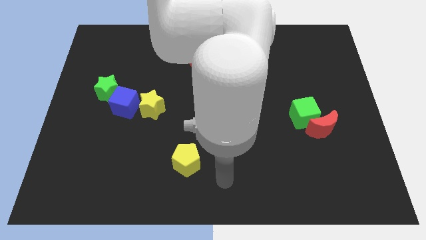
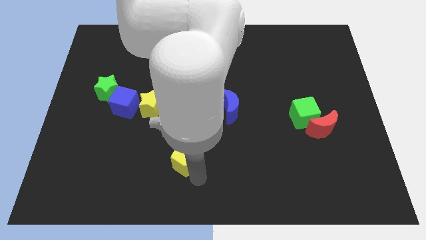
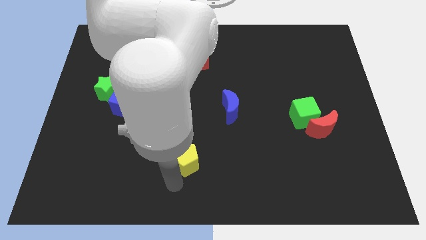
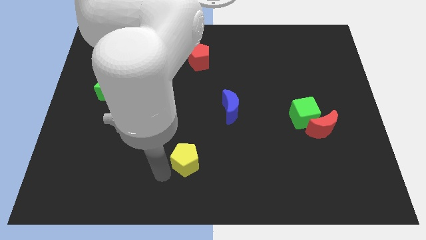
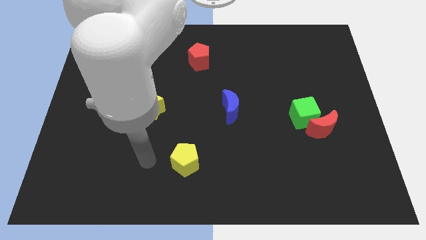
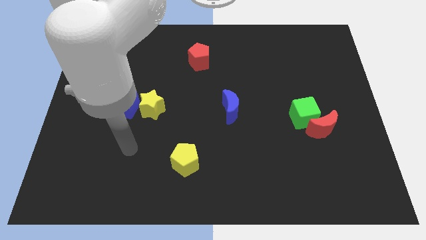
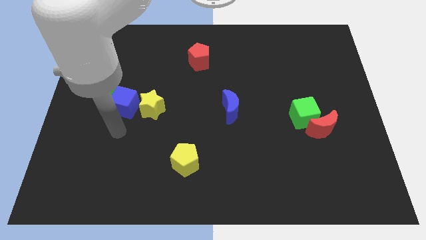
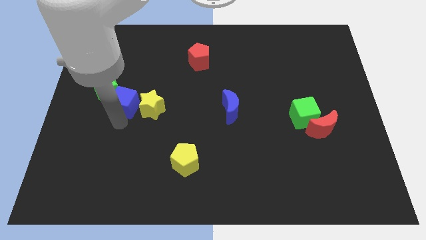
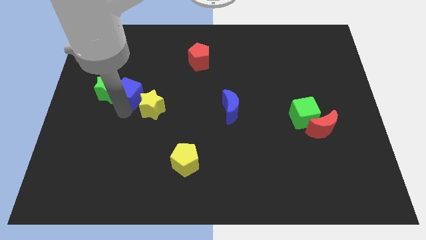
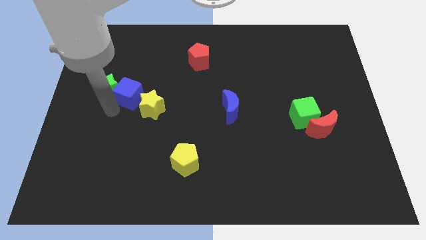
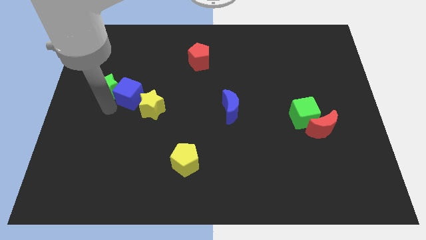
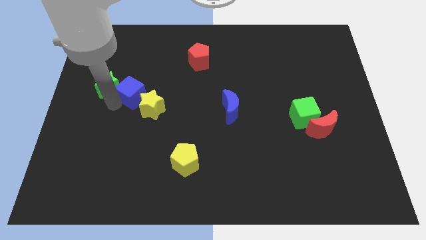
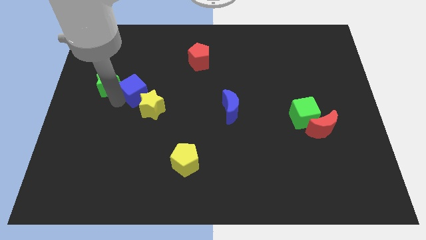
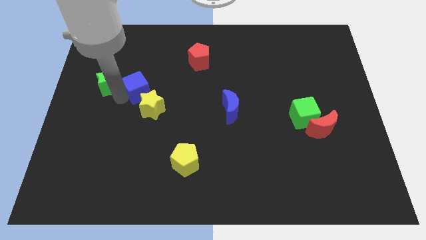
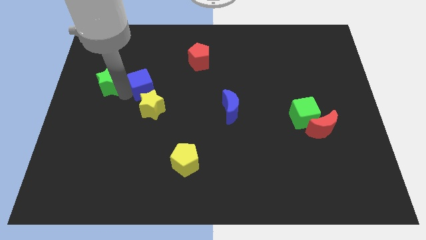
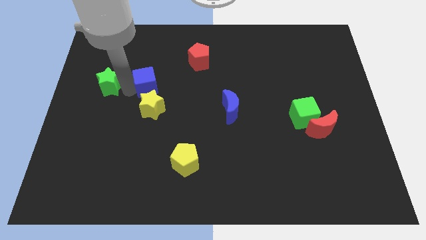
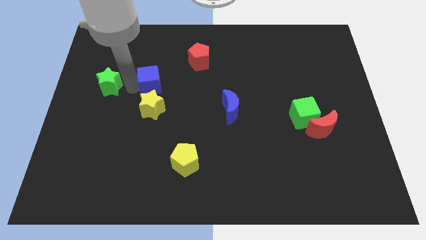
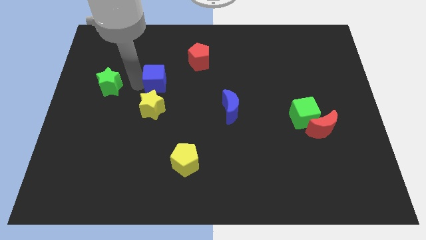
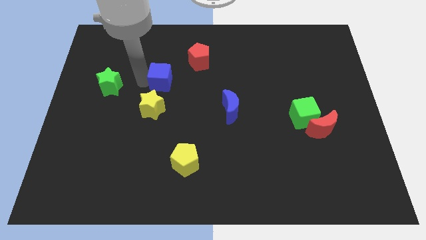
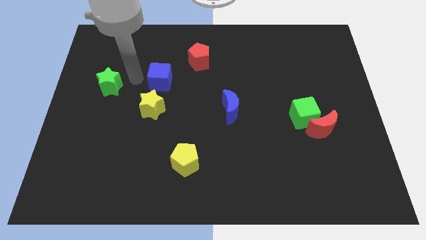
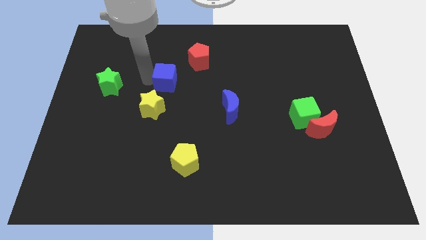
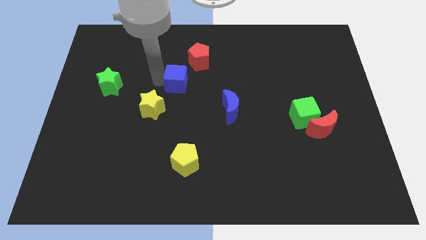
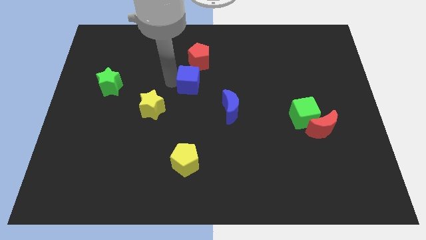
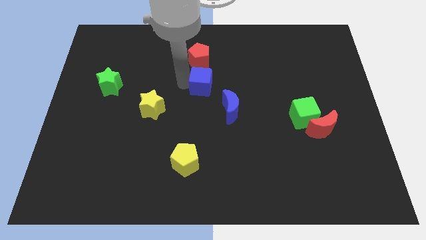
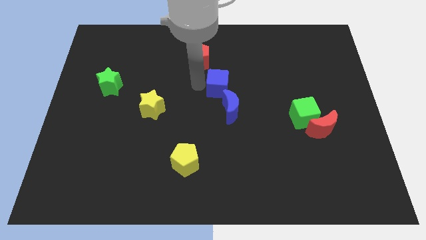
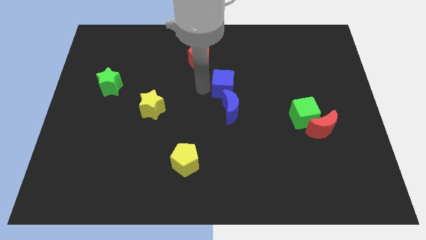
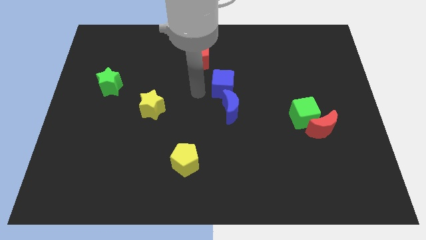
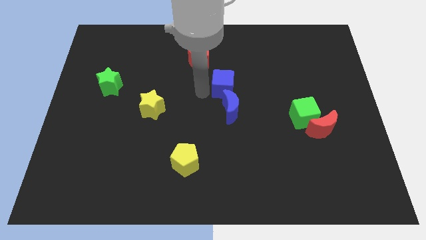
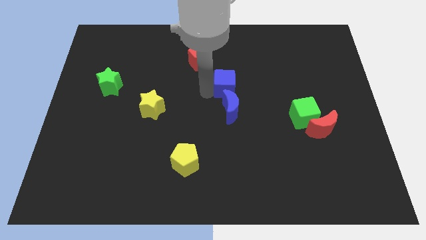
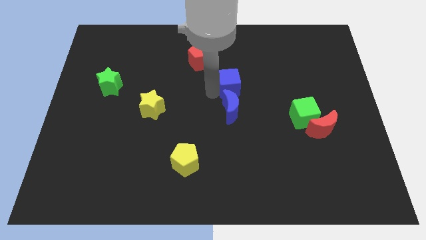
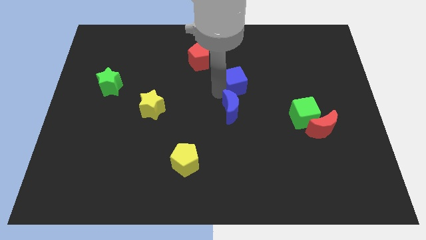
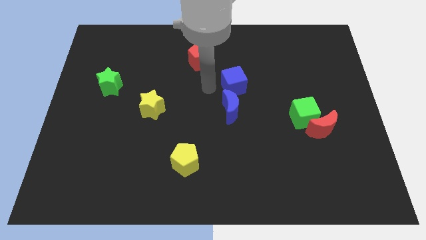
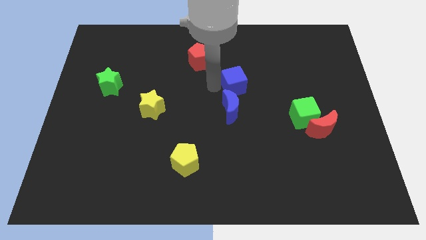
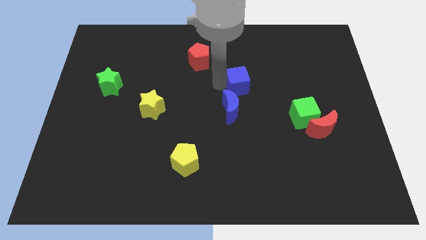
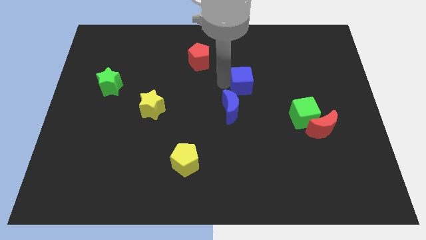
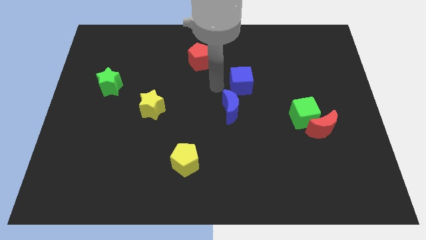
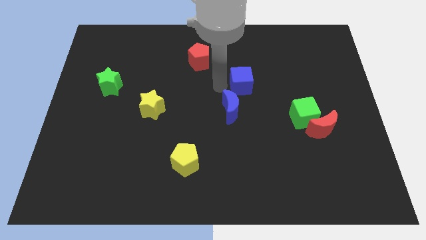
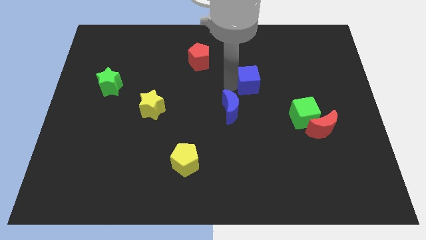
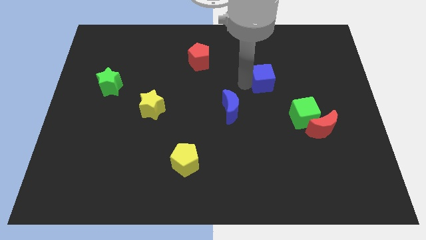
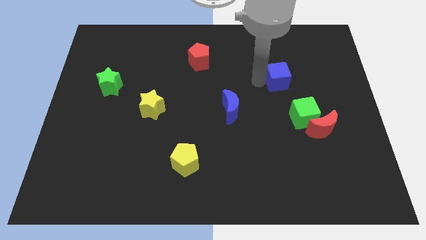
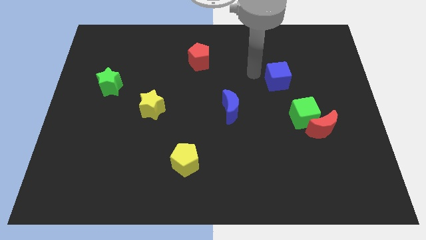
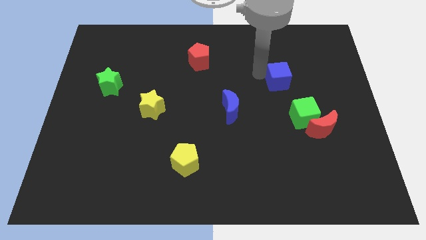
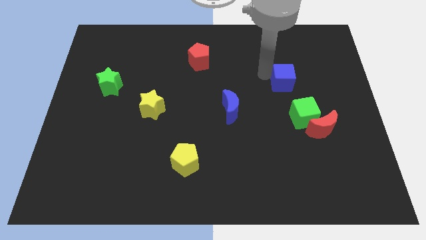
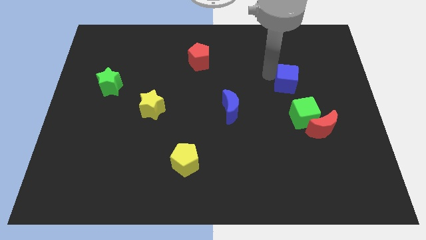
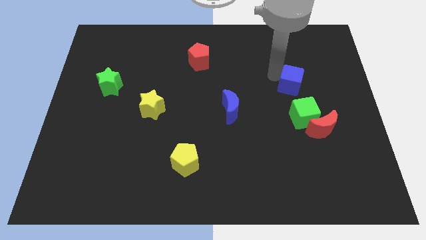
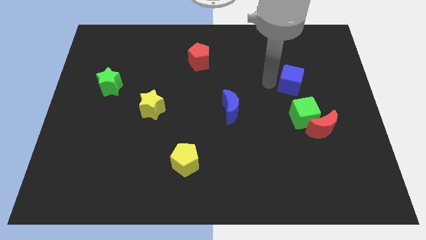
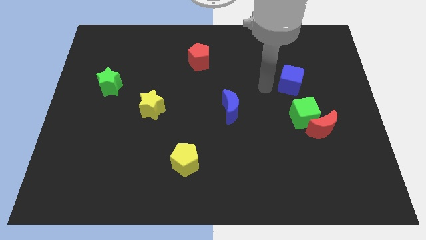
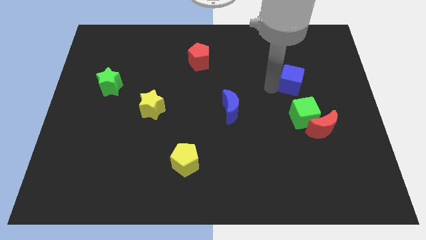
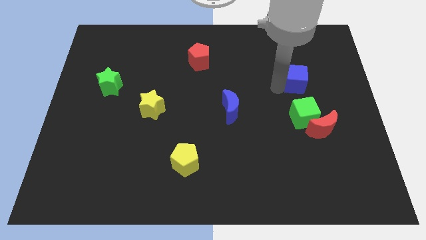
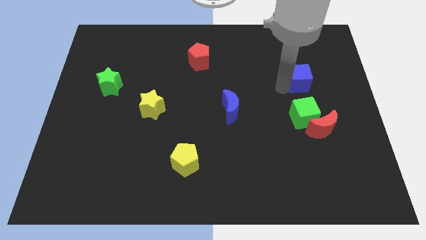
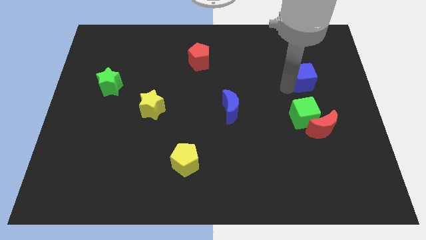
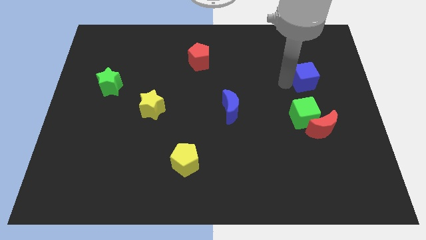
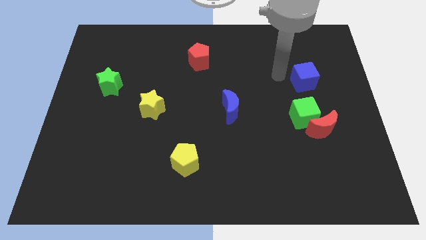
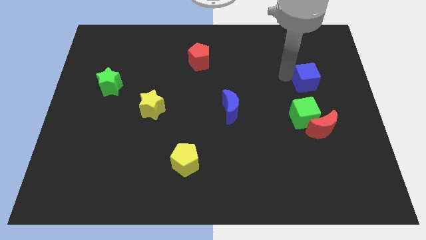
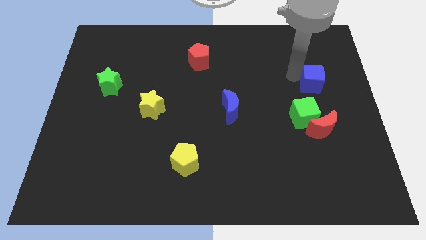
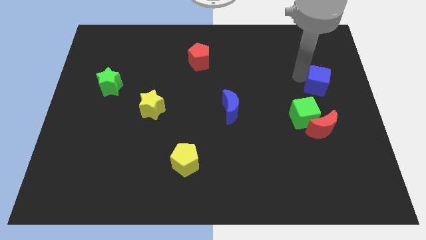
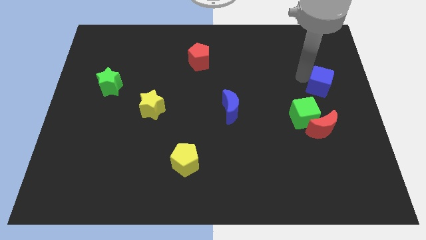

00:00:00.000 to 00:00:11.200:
put the blue cube to the center right

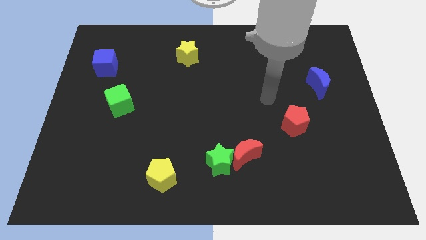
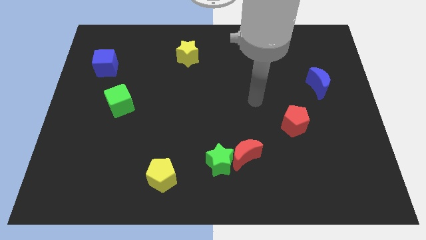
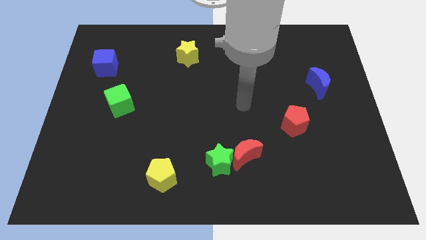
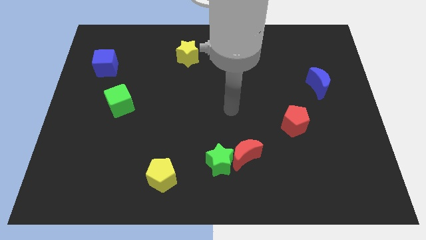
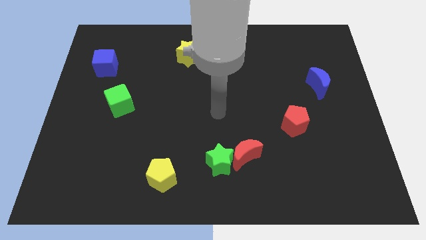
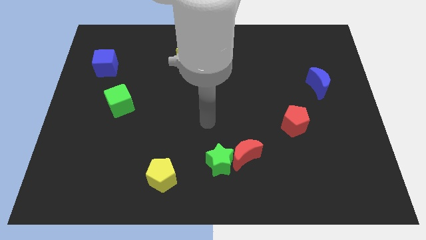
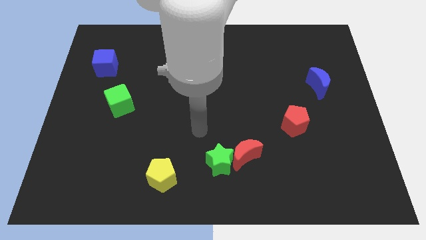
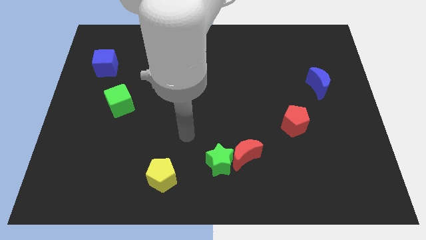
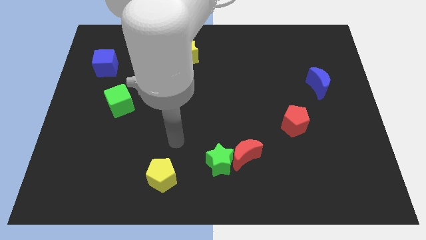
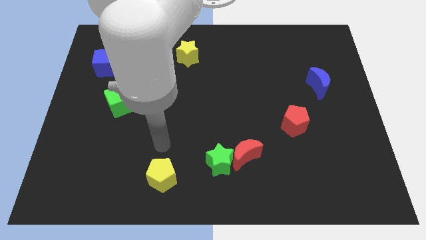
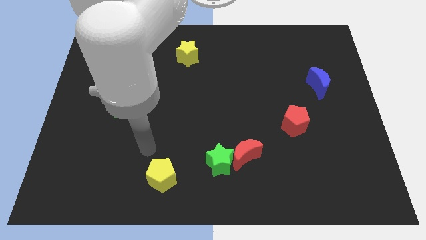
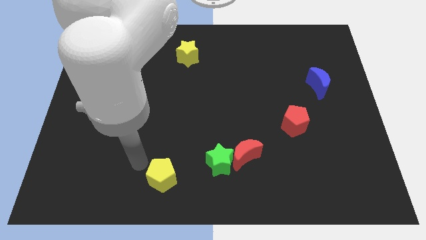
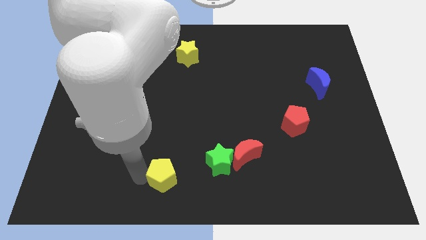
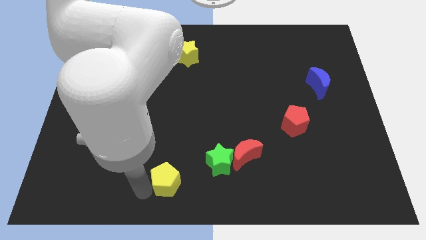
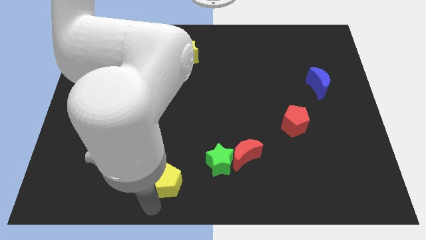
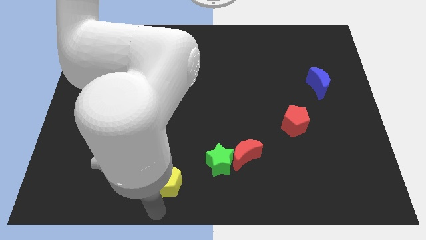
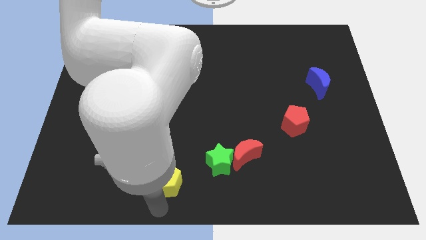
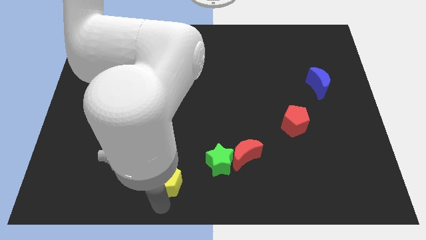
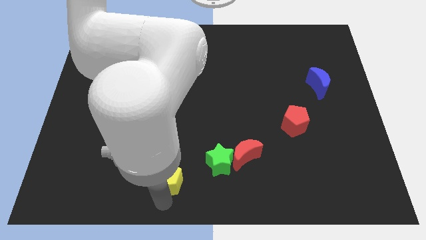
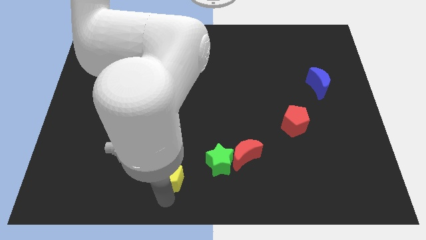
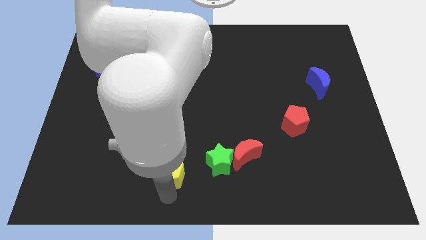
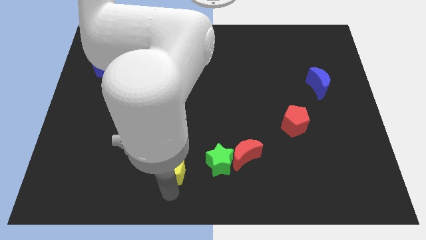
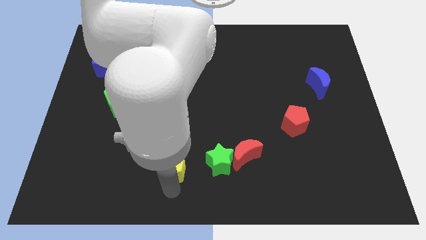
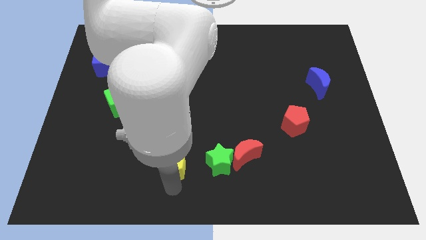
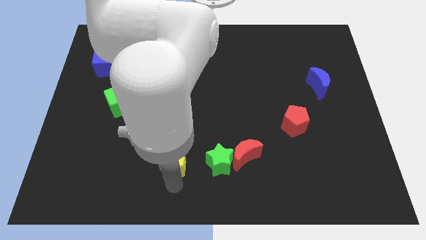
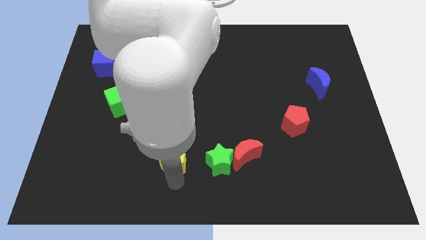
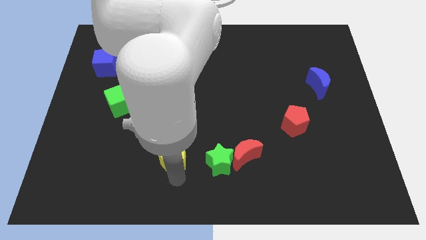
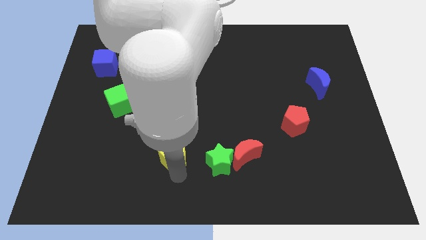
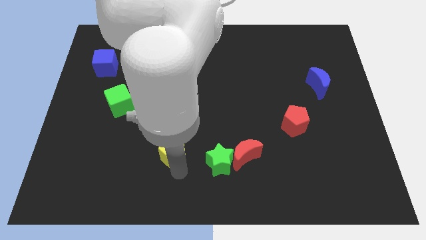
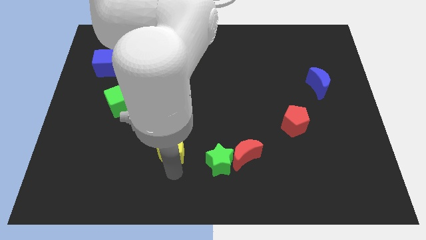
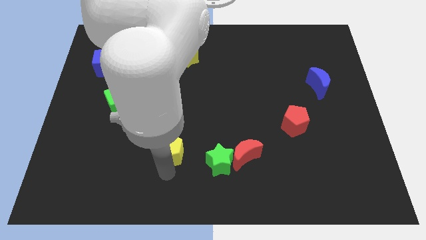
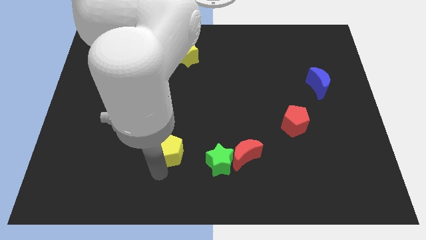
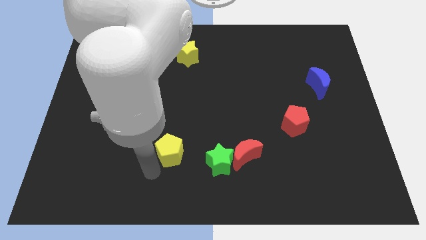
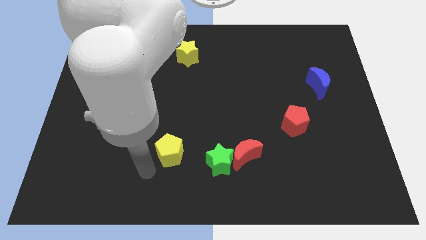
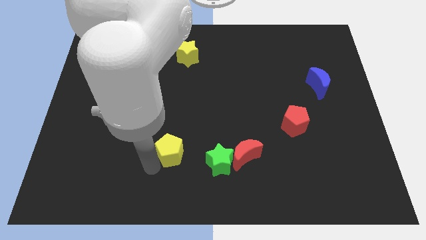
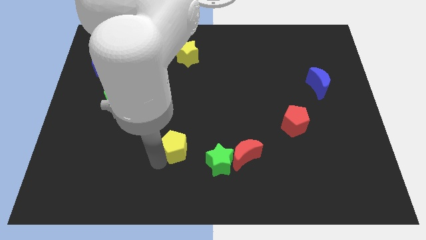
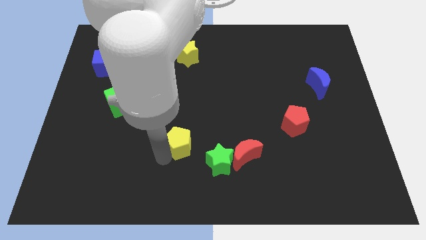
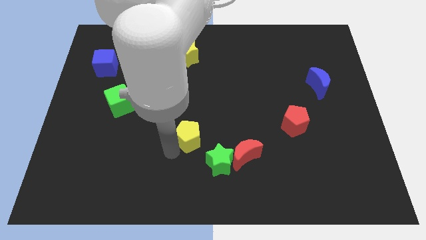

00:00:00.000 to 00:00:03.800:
move the yellow pentagon to the center
